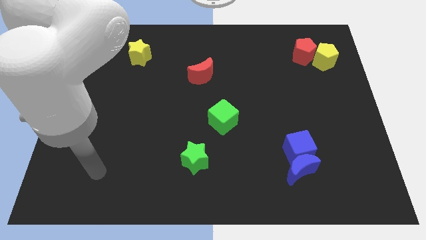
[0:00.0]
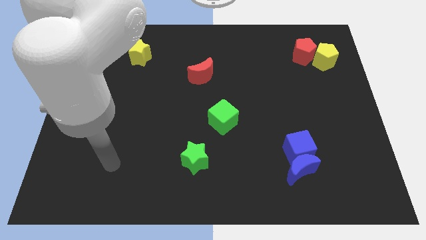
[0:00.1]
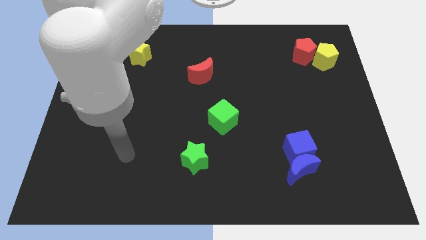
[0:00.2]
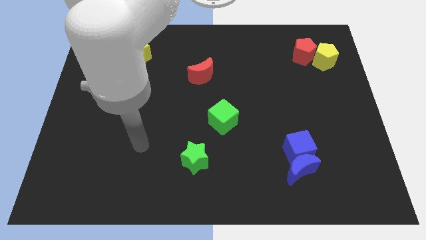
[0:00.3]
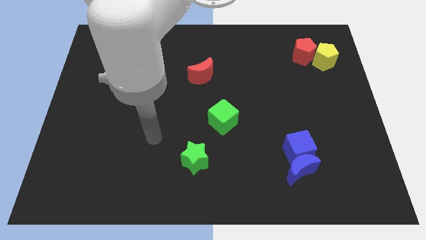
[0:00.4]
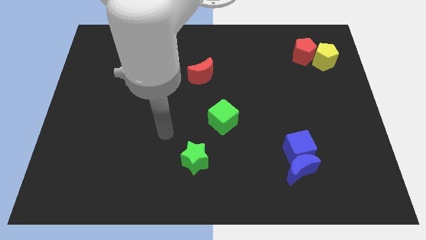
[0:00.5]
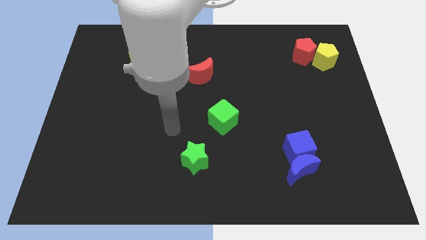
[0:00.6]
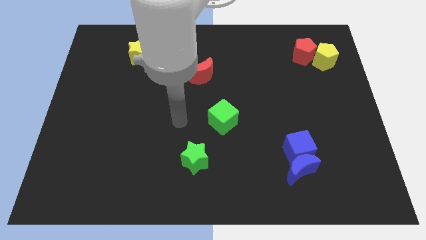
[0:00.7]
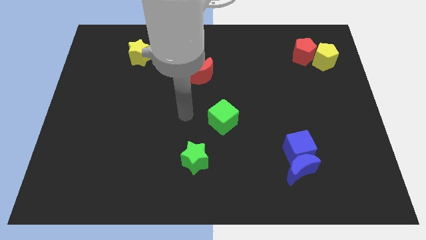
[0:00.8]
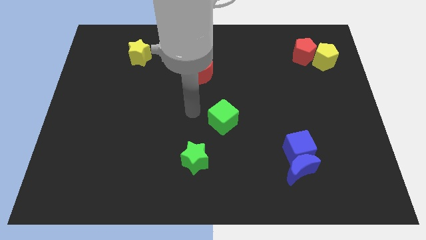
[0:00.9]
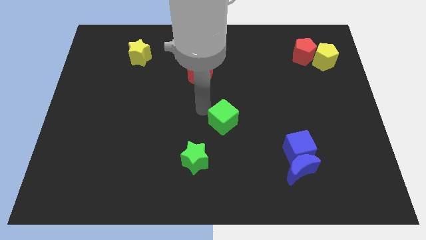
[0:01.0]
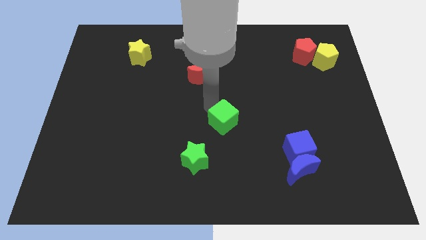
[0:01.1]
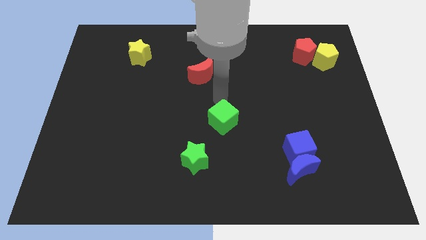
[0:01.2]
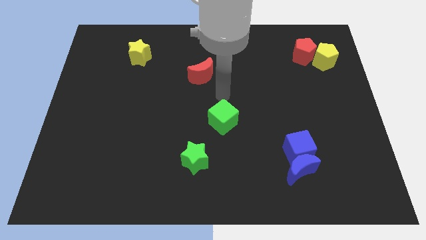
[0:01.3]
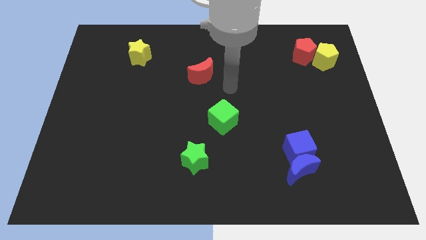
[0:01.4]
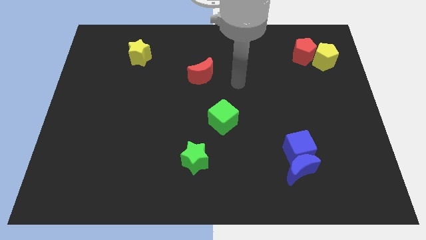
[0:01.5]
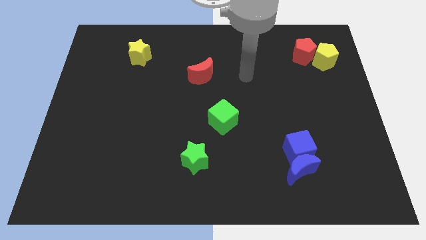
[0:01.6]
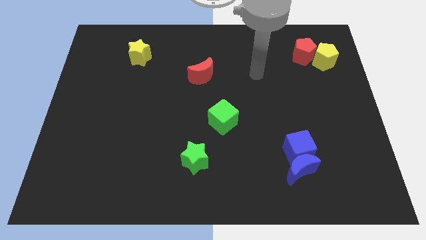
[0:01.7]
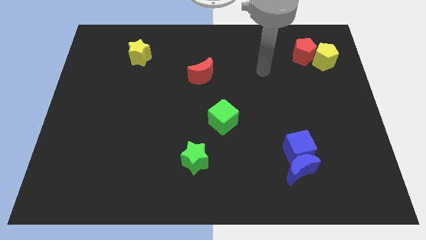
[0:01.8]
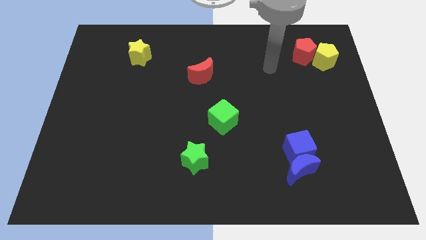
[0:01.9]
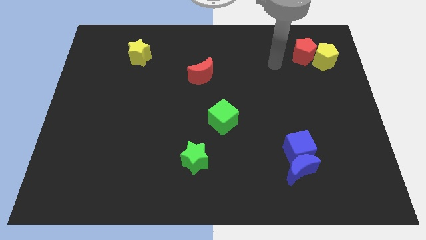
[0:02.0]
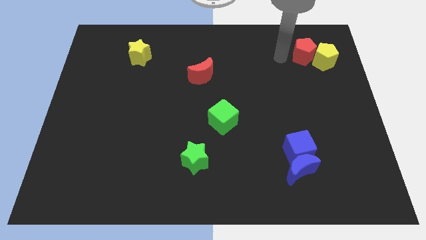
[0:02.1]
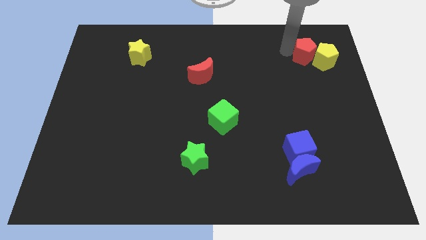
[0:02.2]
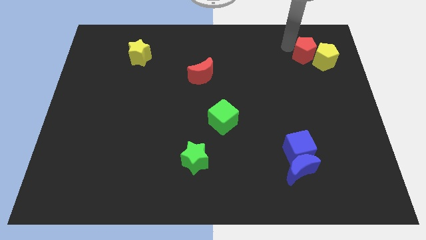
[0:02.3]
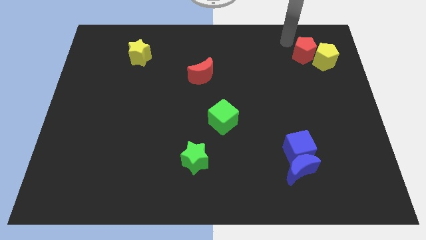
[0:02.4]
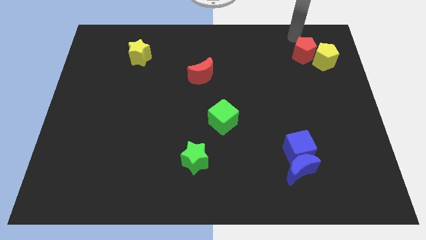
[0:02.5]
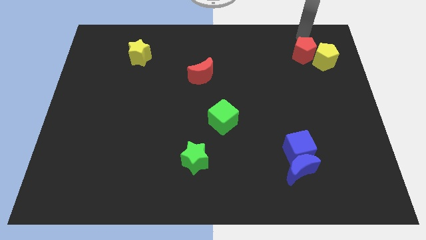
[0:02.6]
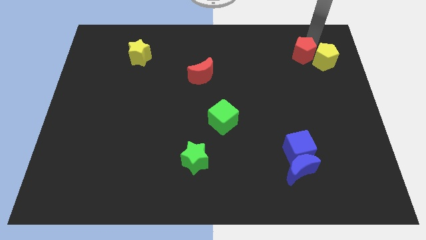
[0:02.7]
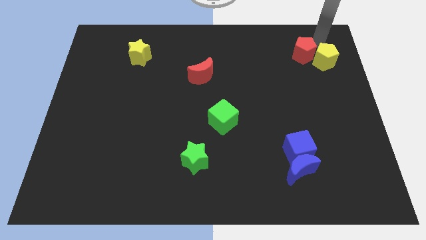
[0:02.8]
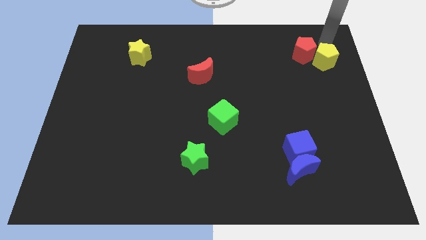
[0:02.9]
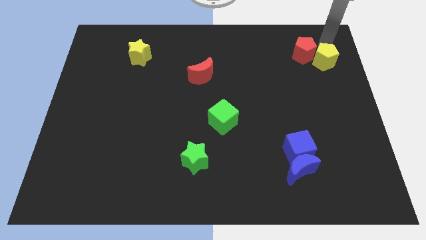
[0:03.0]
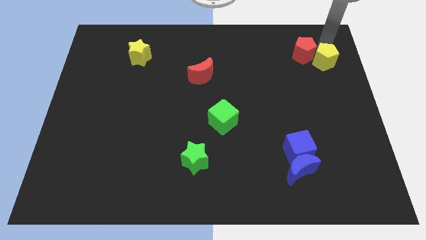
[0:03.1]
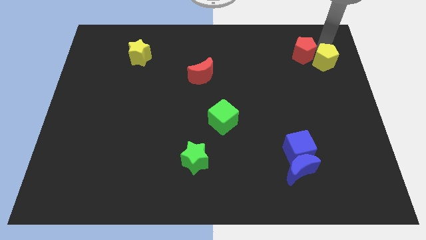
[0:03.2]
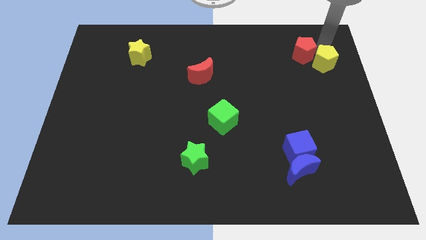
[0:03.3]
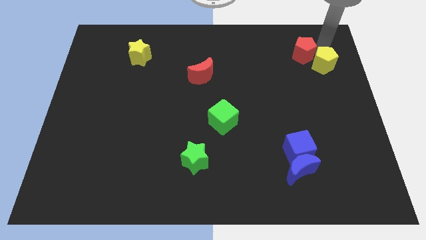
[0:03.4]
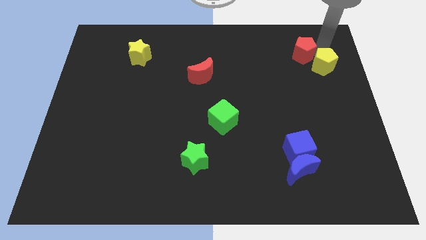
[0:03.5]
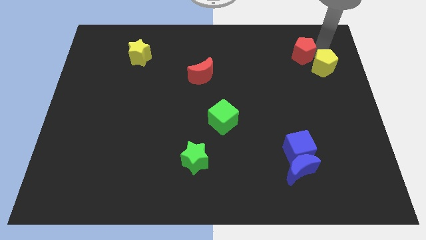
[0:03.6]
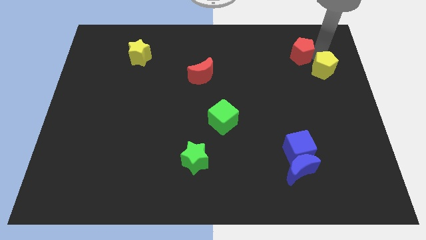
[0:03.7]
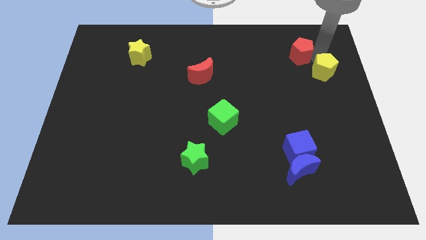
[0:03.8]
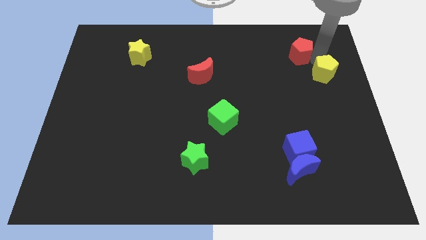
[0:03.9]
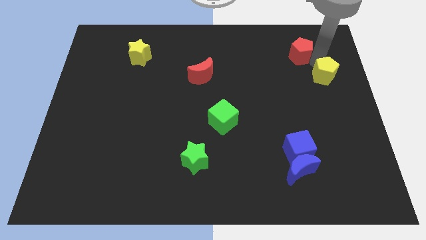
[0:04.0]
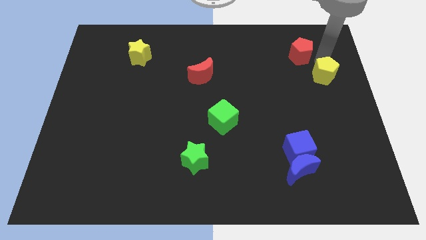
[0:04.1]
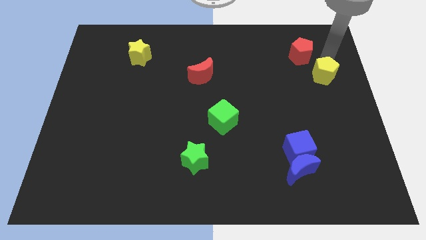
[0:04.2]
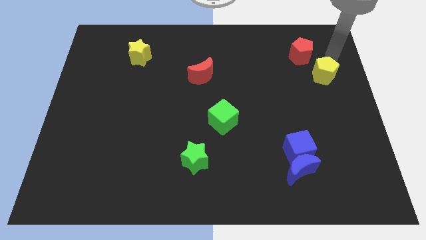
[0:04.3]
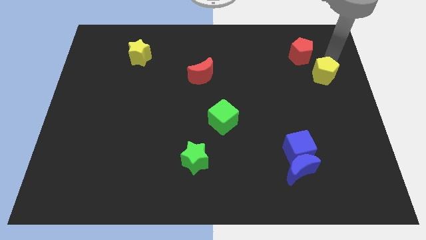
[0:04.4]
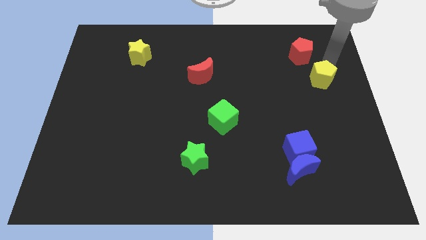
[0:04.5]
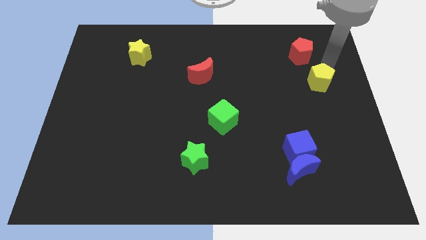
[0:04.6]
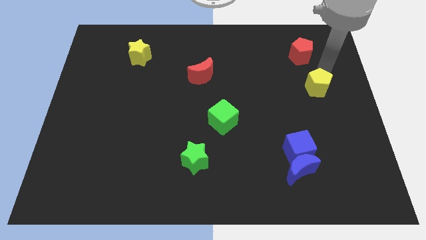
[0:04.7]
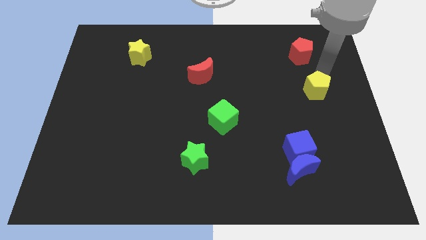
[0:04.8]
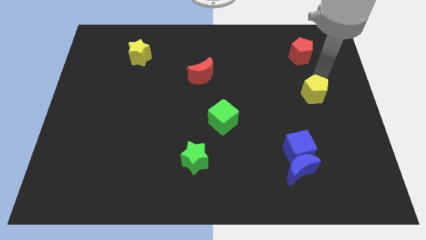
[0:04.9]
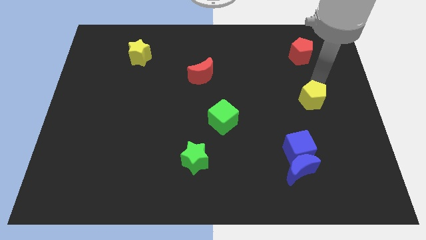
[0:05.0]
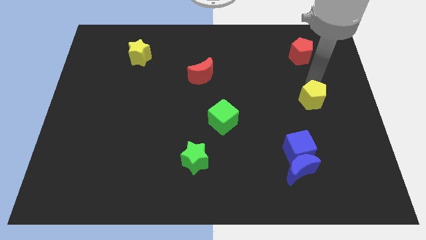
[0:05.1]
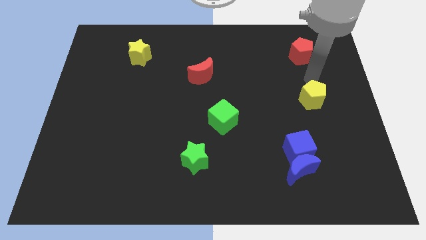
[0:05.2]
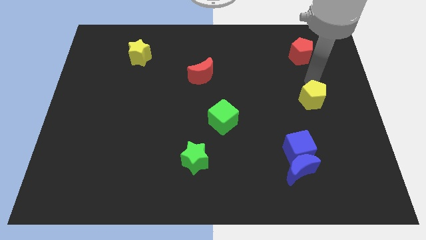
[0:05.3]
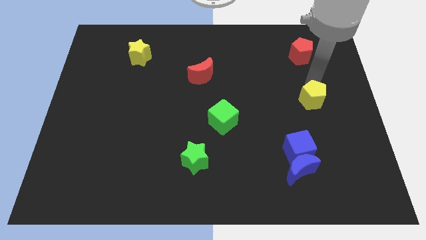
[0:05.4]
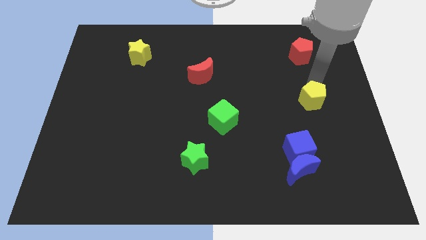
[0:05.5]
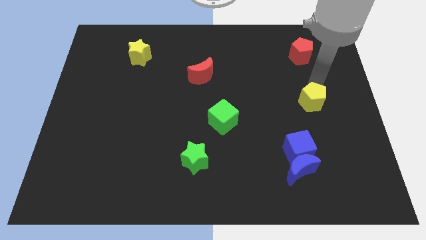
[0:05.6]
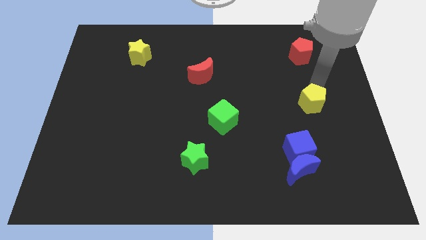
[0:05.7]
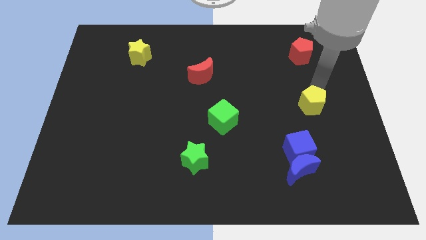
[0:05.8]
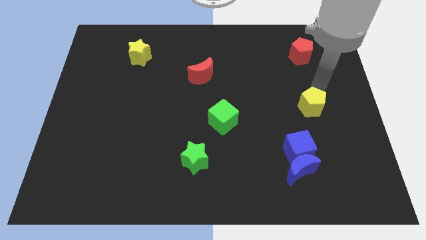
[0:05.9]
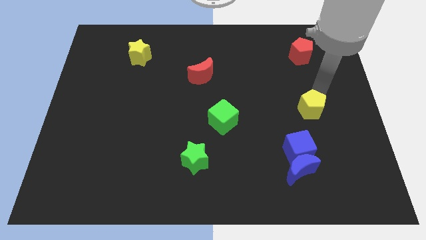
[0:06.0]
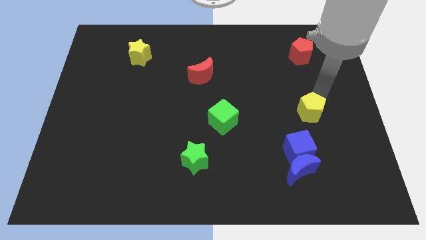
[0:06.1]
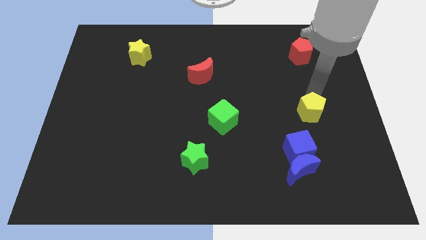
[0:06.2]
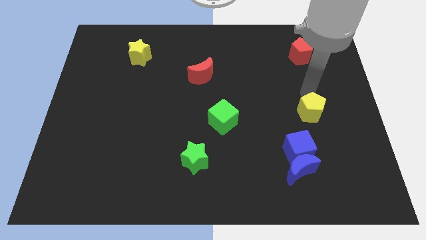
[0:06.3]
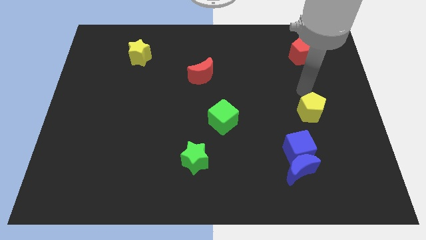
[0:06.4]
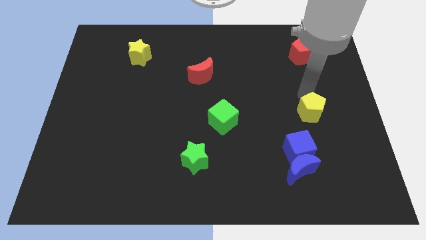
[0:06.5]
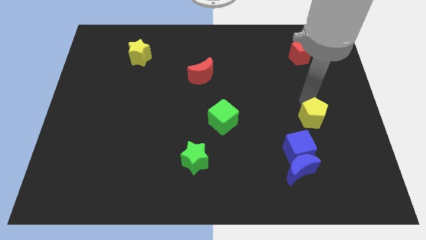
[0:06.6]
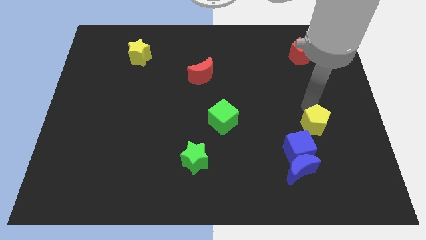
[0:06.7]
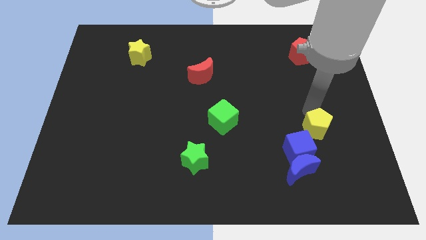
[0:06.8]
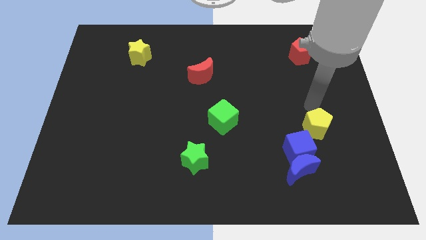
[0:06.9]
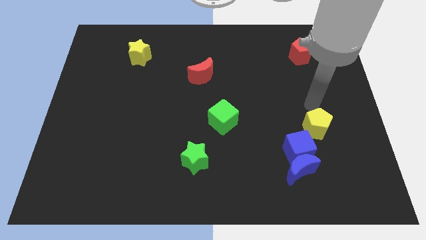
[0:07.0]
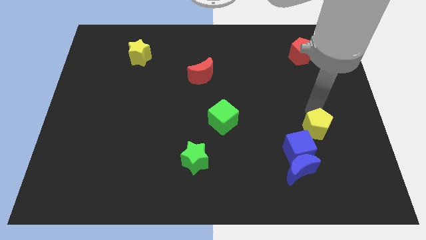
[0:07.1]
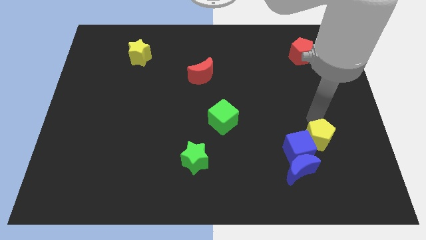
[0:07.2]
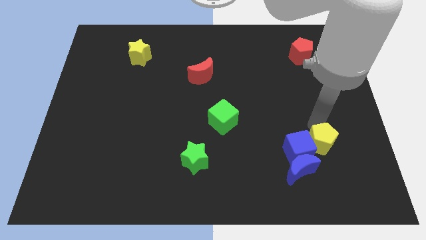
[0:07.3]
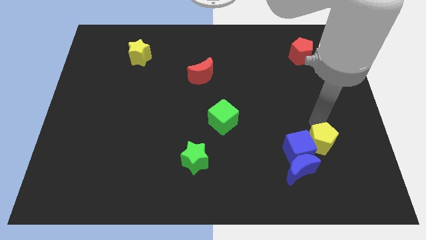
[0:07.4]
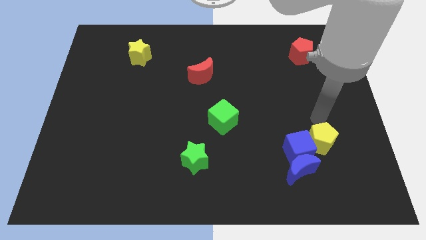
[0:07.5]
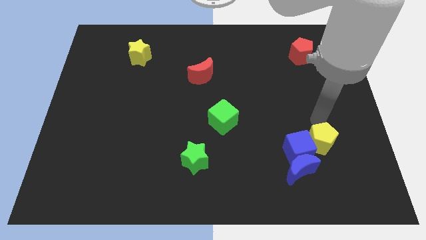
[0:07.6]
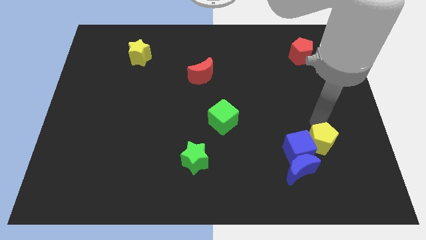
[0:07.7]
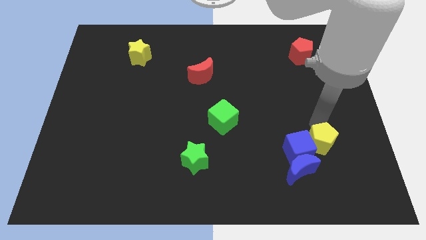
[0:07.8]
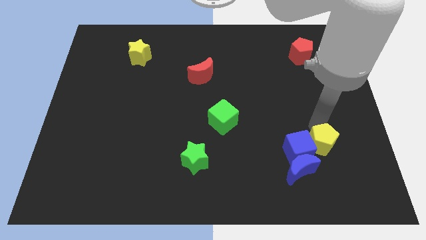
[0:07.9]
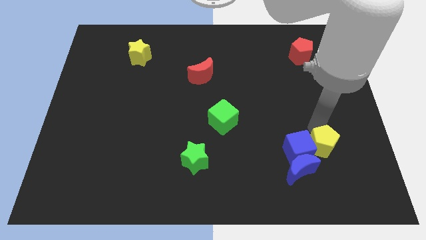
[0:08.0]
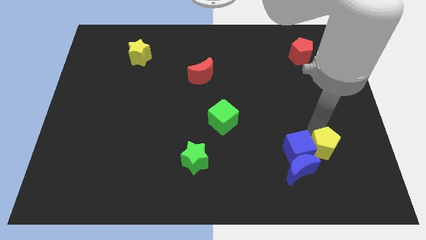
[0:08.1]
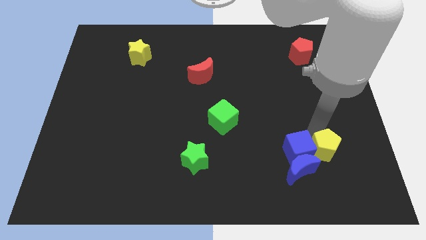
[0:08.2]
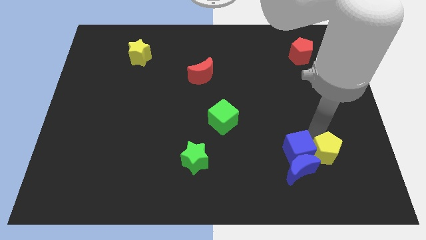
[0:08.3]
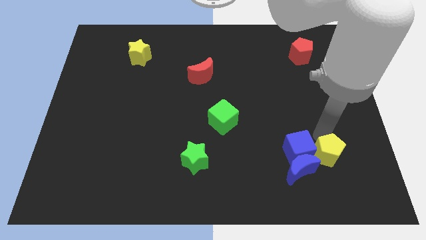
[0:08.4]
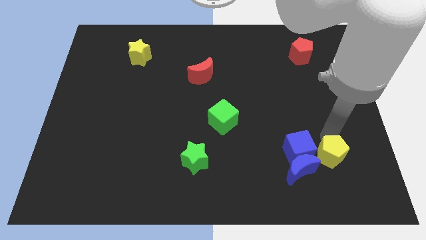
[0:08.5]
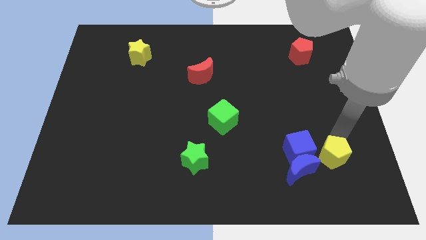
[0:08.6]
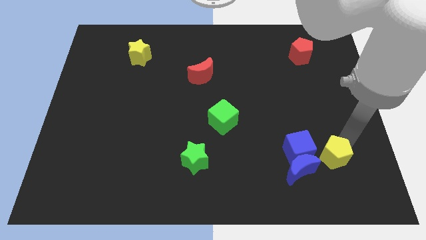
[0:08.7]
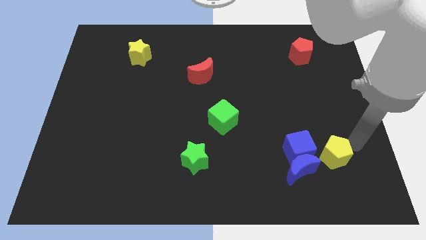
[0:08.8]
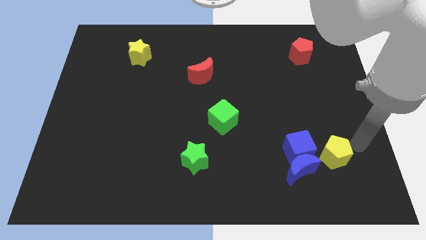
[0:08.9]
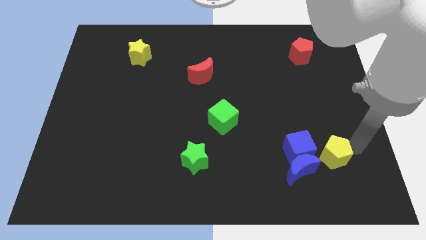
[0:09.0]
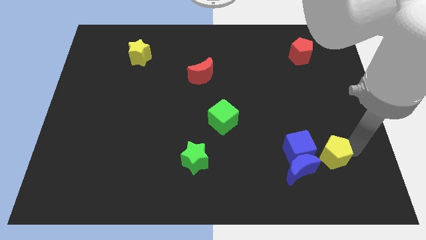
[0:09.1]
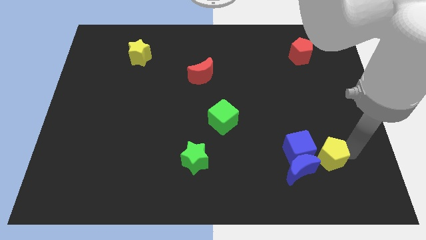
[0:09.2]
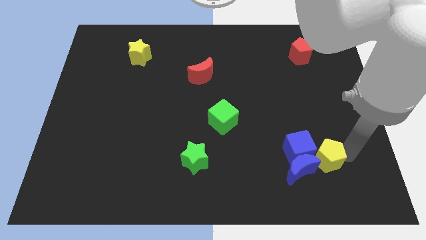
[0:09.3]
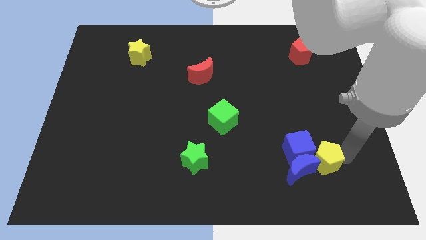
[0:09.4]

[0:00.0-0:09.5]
move the yellow pentagon close to the blue moon
